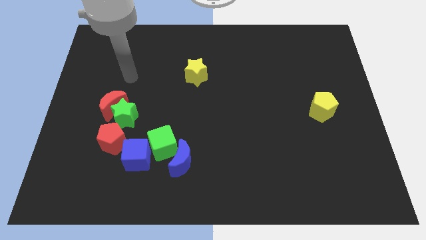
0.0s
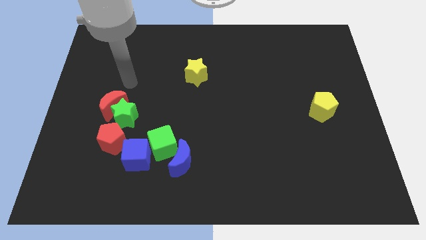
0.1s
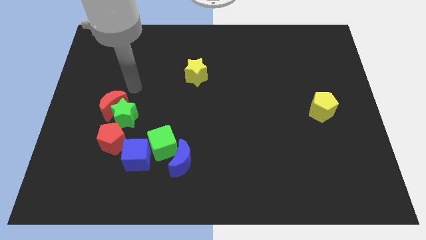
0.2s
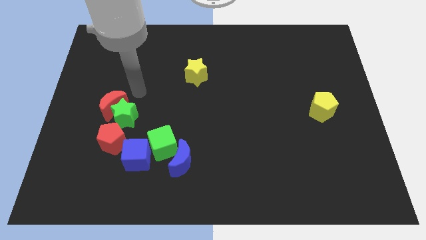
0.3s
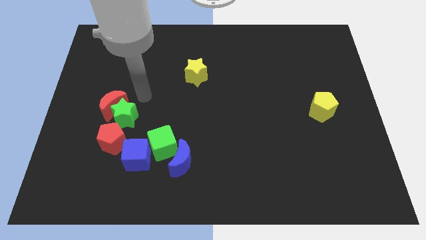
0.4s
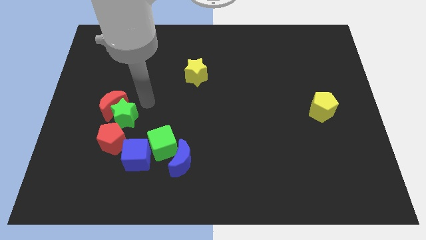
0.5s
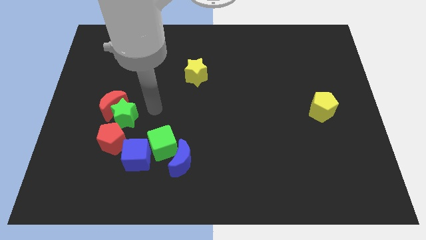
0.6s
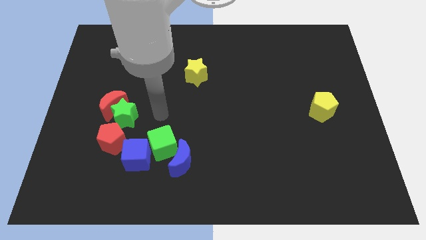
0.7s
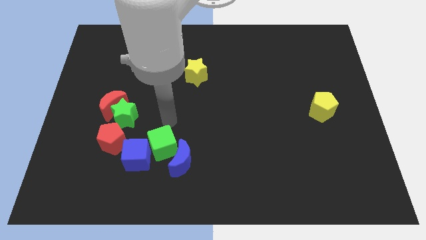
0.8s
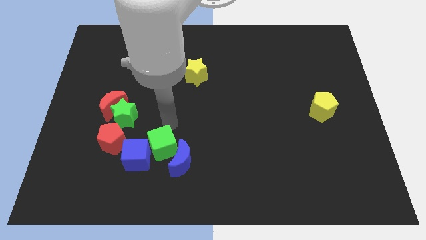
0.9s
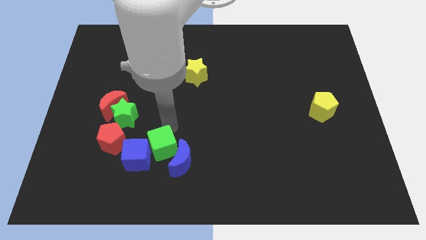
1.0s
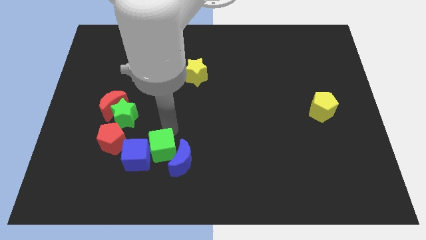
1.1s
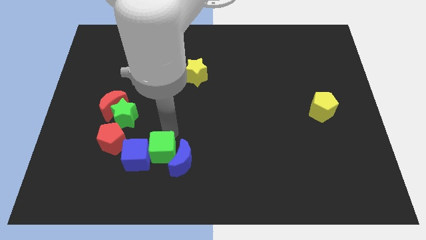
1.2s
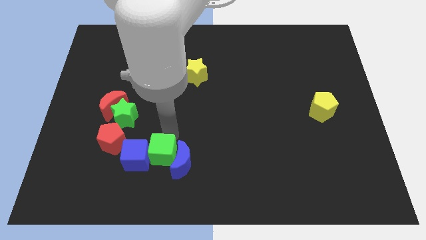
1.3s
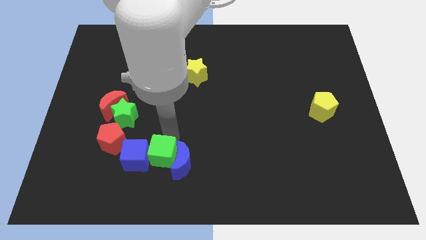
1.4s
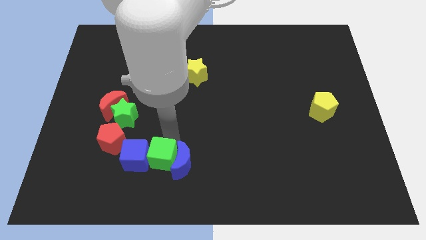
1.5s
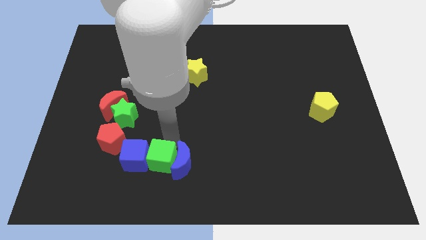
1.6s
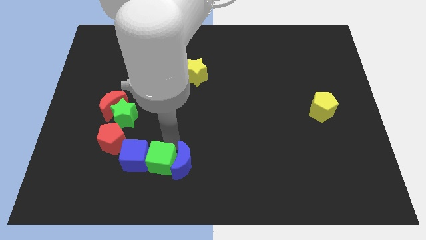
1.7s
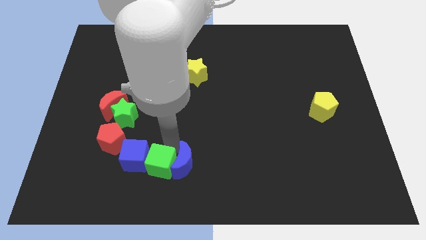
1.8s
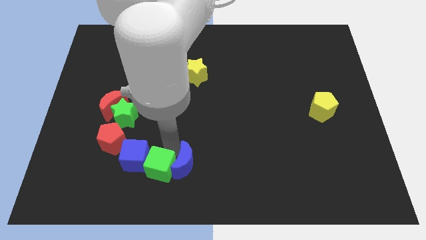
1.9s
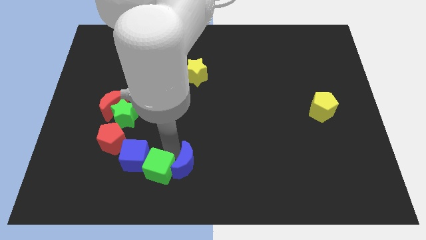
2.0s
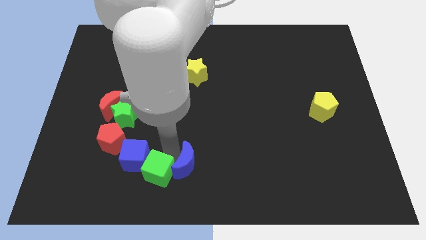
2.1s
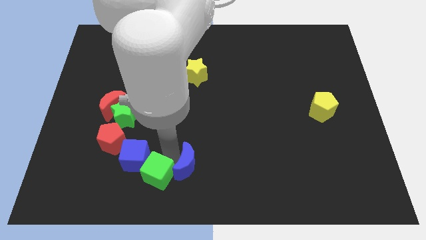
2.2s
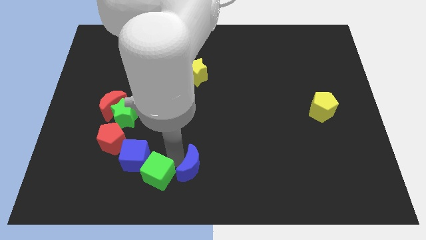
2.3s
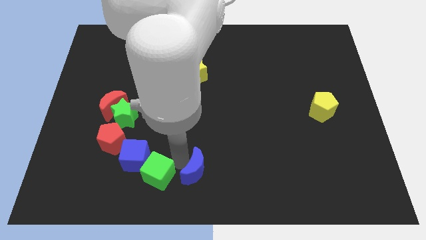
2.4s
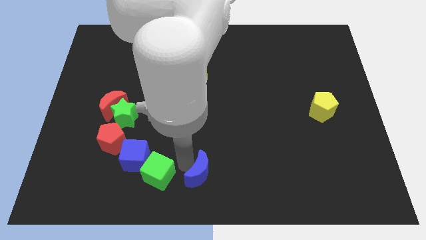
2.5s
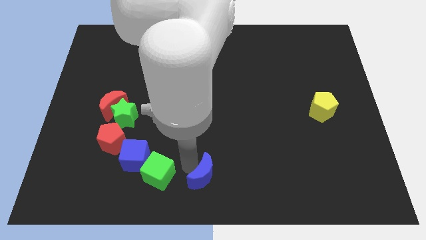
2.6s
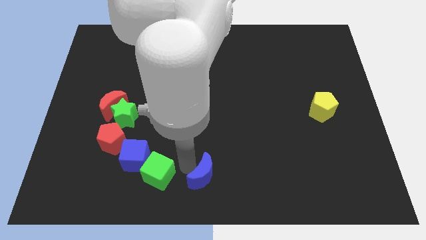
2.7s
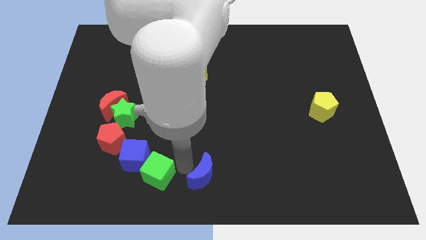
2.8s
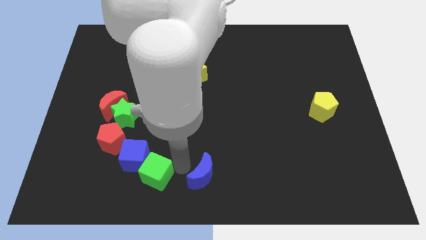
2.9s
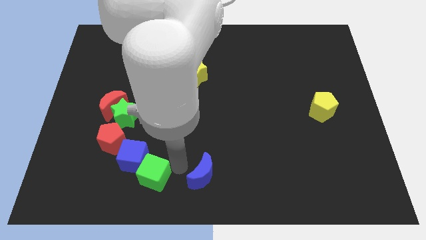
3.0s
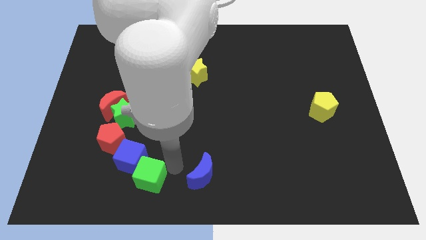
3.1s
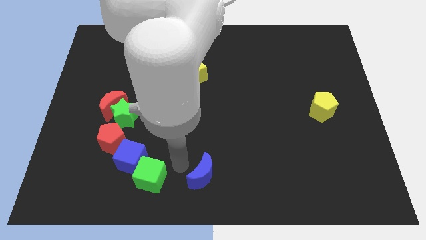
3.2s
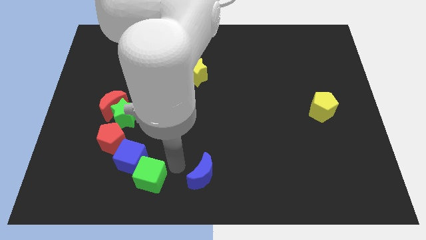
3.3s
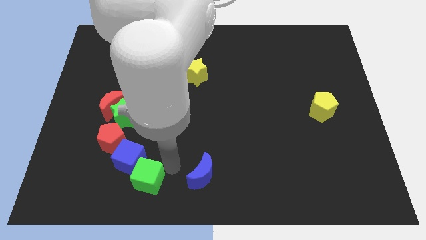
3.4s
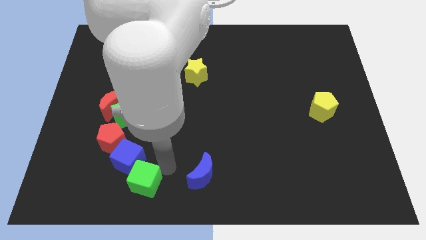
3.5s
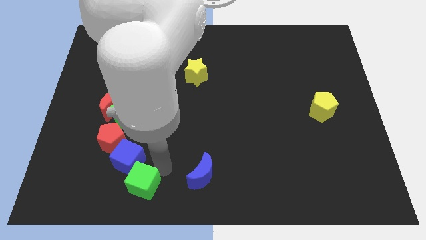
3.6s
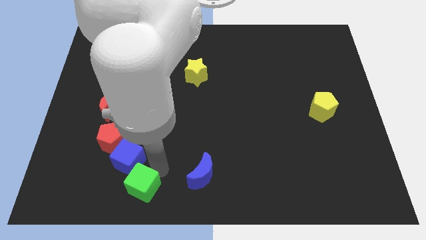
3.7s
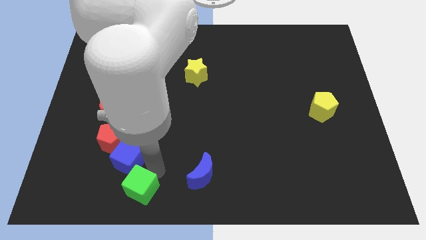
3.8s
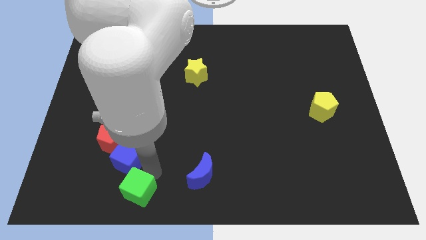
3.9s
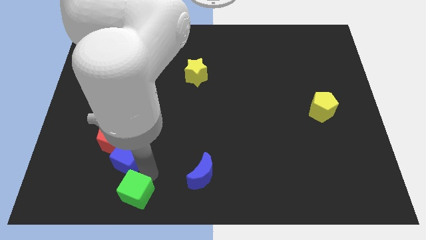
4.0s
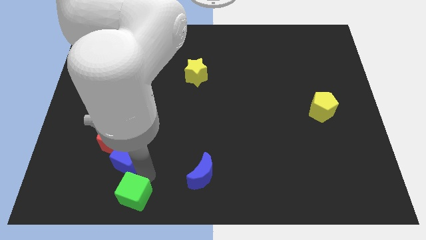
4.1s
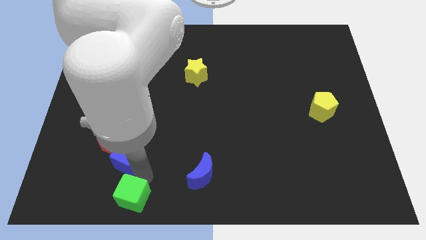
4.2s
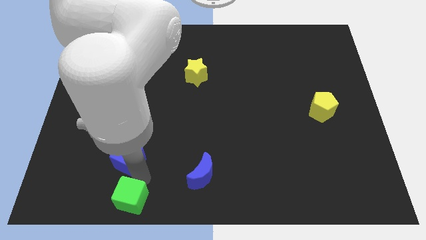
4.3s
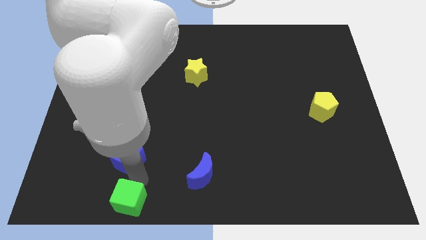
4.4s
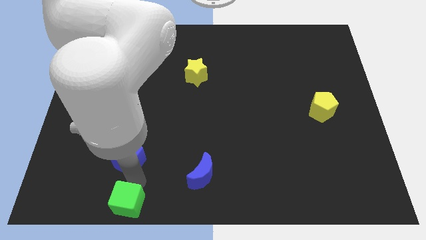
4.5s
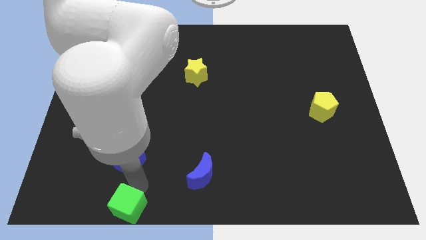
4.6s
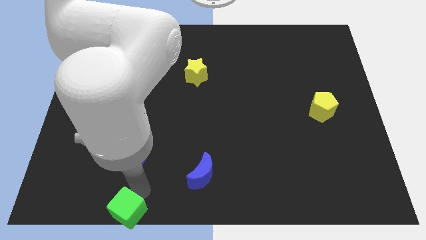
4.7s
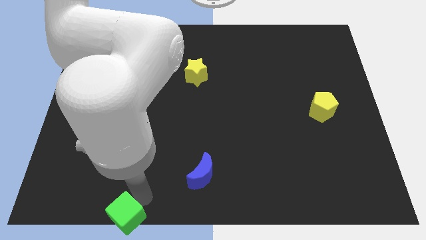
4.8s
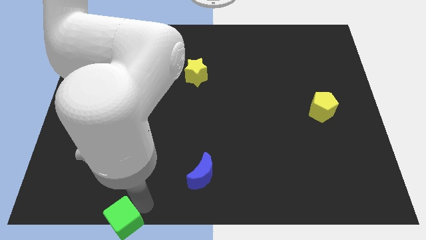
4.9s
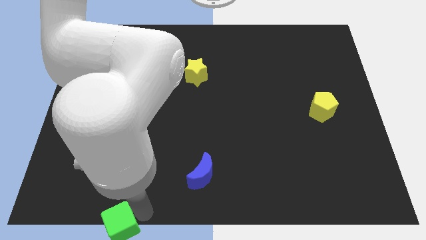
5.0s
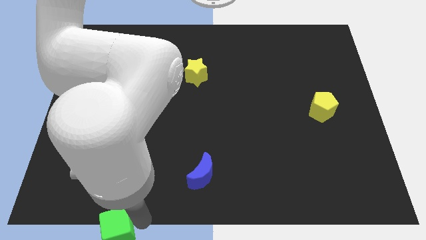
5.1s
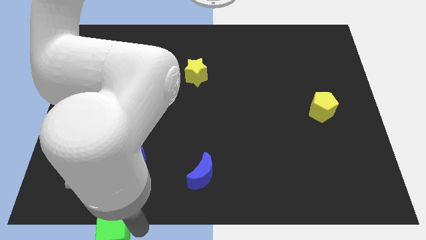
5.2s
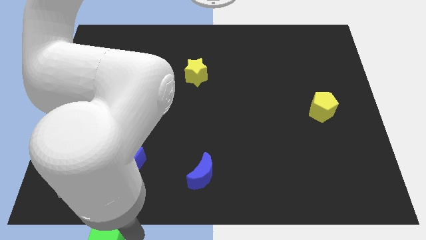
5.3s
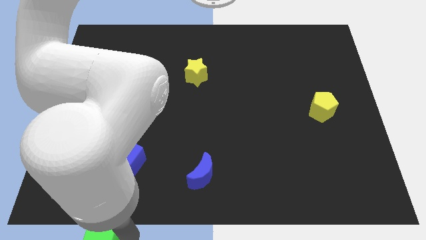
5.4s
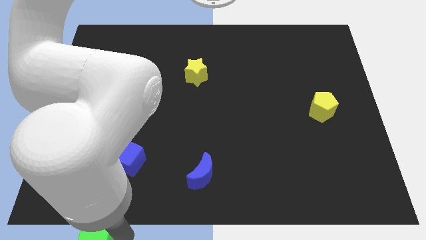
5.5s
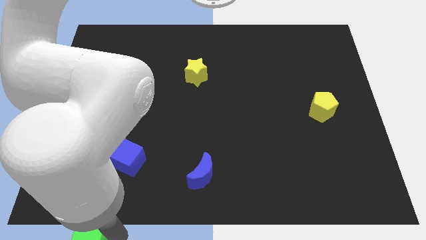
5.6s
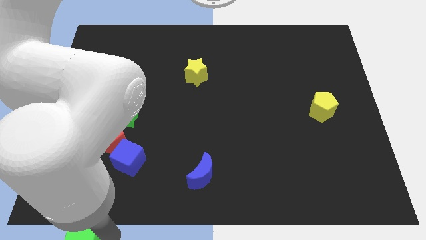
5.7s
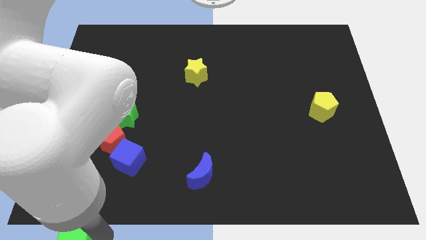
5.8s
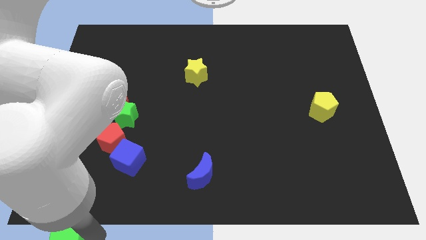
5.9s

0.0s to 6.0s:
slide the green cube to the lower left corner
